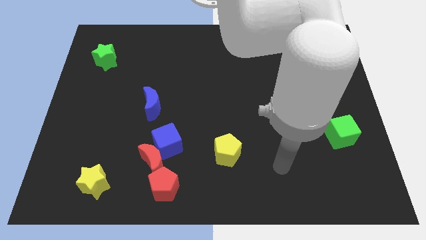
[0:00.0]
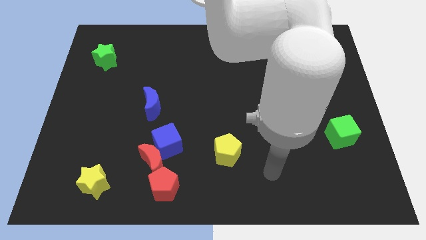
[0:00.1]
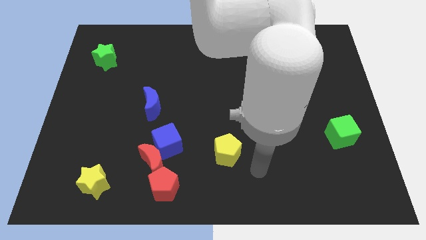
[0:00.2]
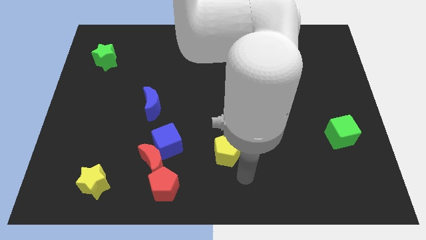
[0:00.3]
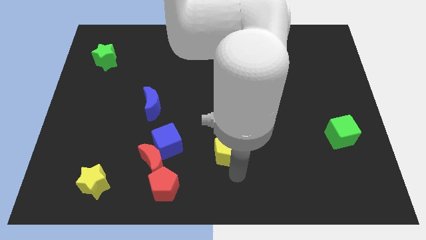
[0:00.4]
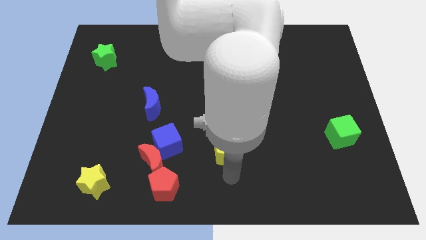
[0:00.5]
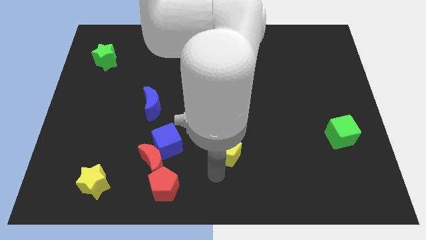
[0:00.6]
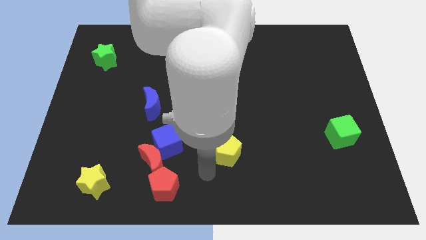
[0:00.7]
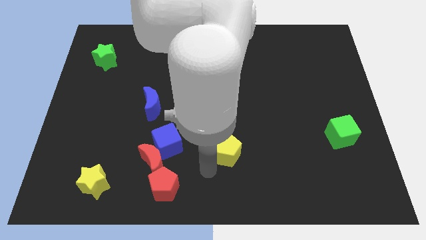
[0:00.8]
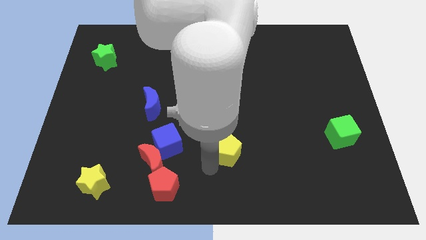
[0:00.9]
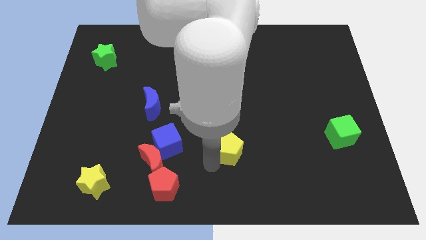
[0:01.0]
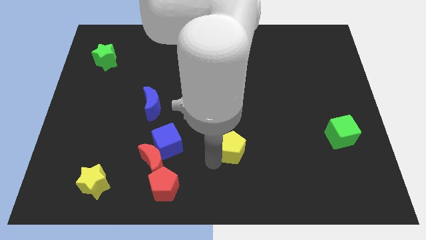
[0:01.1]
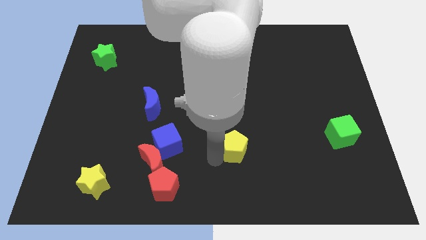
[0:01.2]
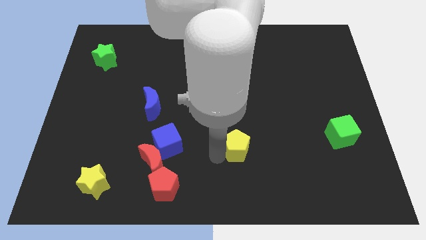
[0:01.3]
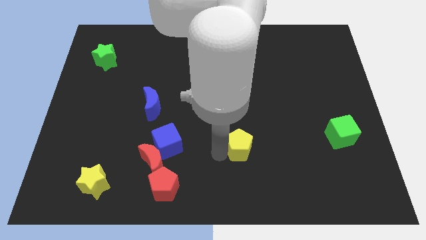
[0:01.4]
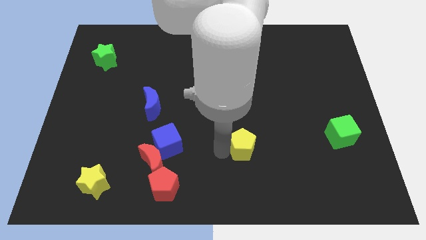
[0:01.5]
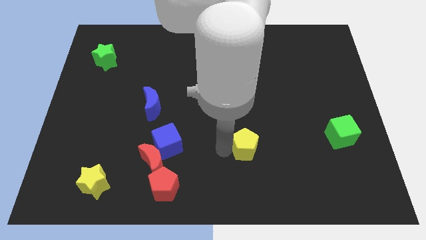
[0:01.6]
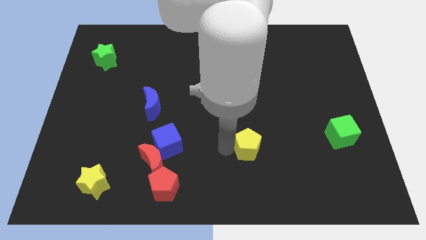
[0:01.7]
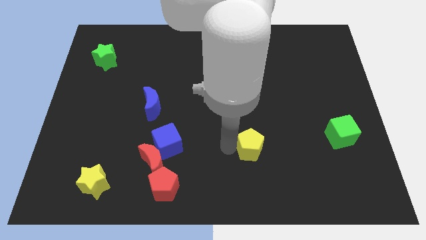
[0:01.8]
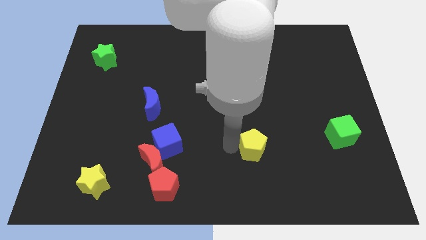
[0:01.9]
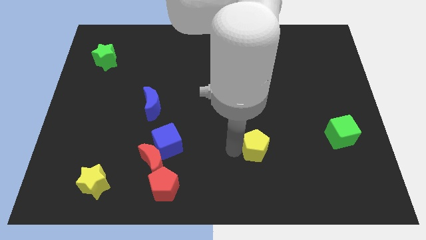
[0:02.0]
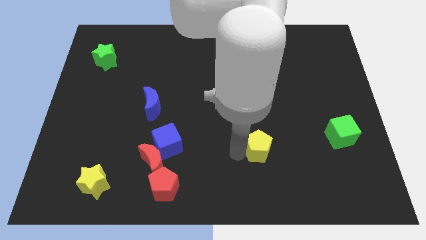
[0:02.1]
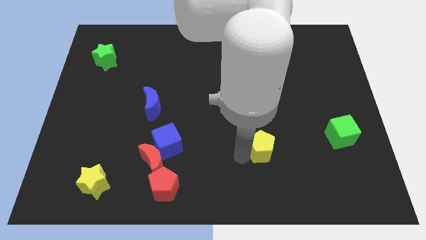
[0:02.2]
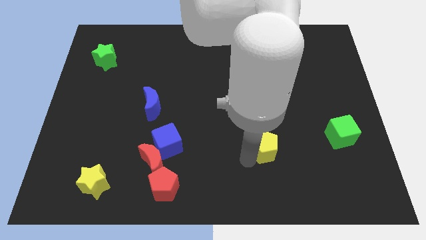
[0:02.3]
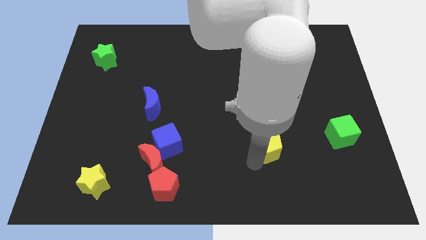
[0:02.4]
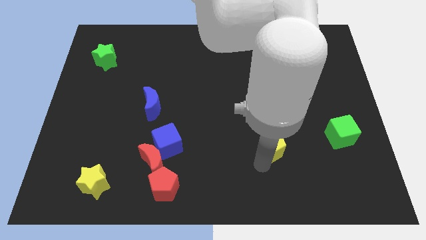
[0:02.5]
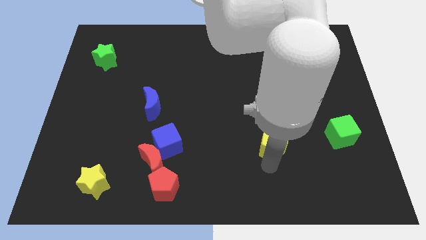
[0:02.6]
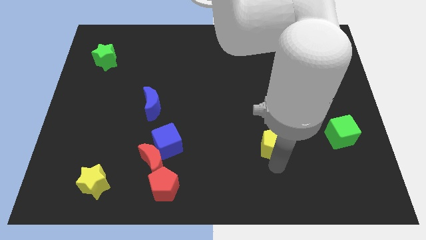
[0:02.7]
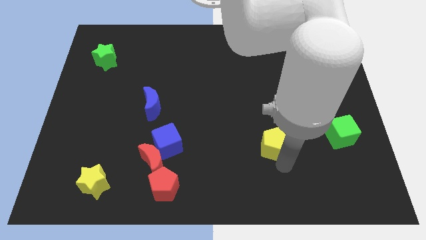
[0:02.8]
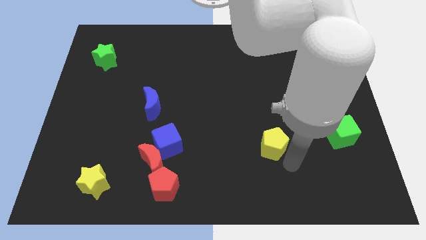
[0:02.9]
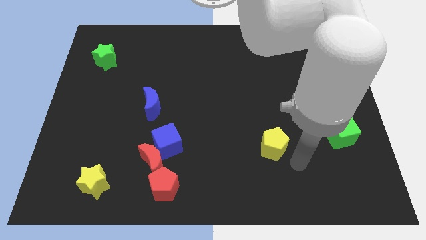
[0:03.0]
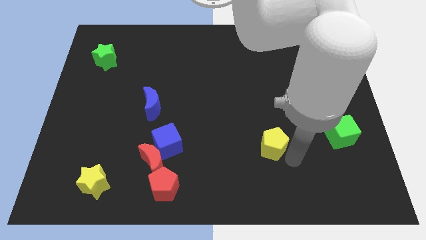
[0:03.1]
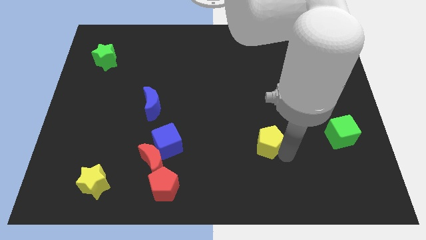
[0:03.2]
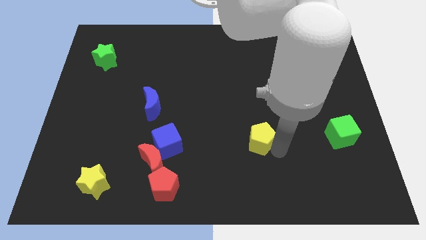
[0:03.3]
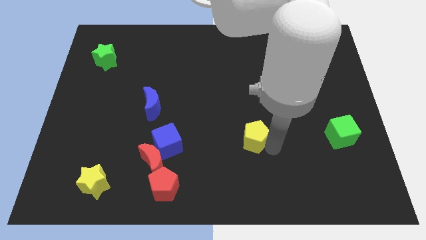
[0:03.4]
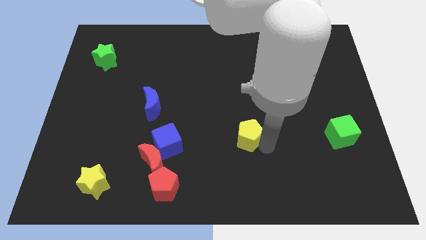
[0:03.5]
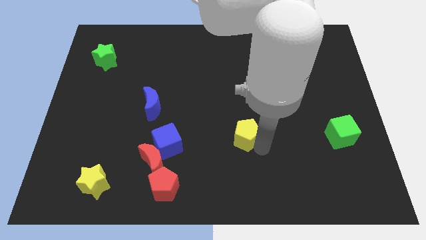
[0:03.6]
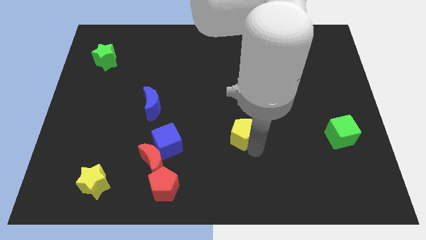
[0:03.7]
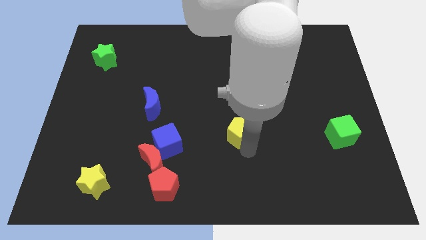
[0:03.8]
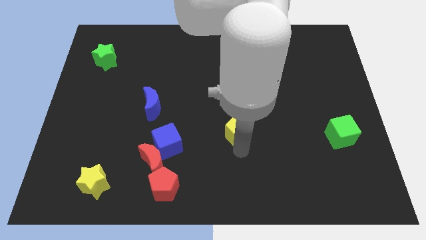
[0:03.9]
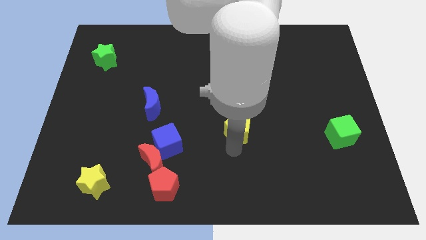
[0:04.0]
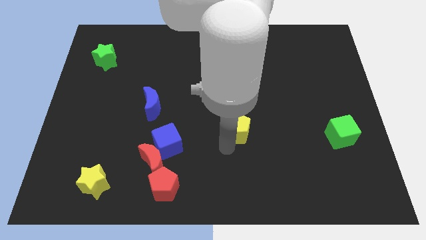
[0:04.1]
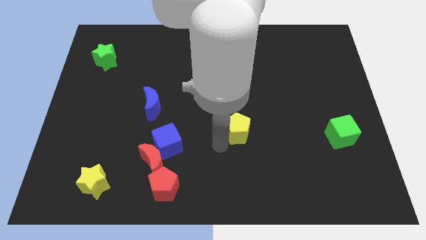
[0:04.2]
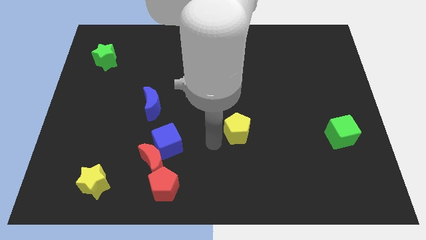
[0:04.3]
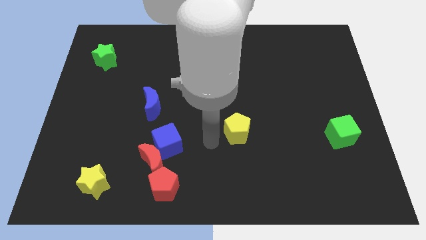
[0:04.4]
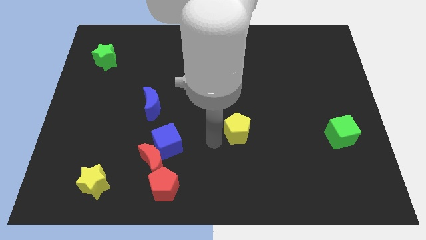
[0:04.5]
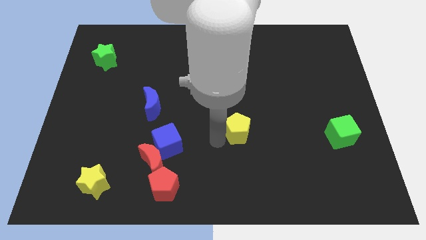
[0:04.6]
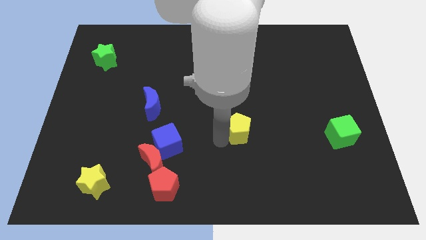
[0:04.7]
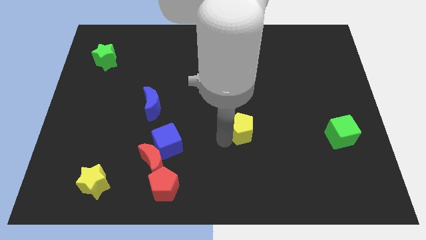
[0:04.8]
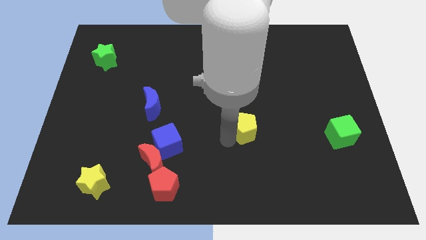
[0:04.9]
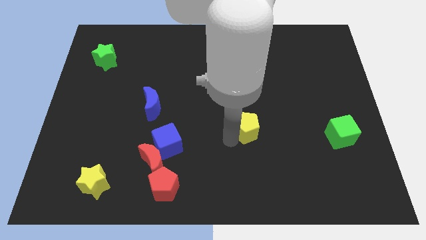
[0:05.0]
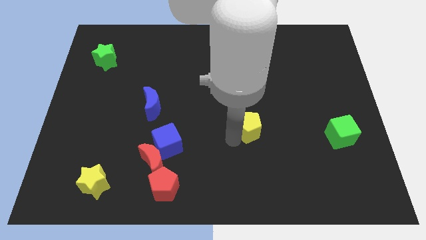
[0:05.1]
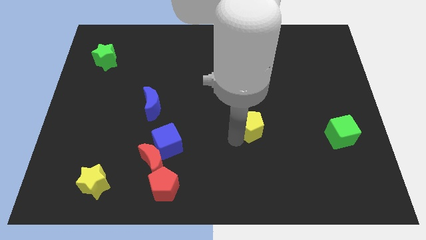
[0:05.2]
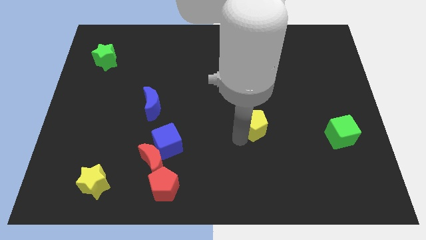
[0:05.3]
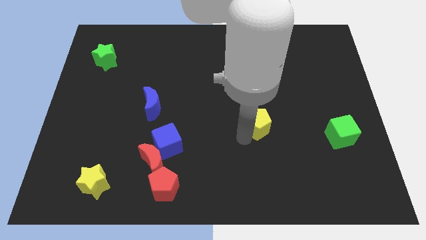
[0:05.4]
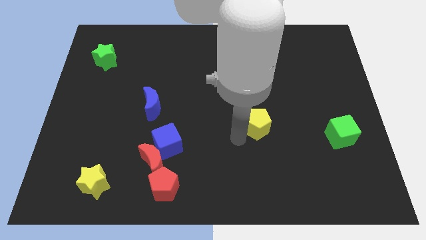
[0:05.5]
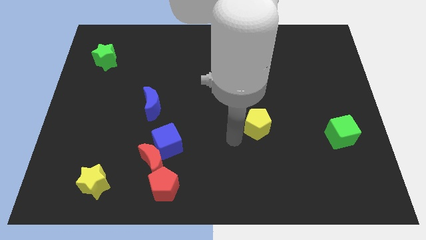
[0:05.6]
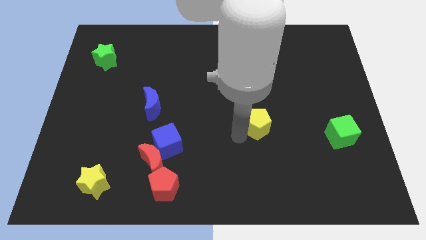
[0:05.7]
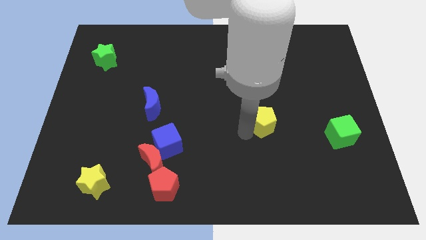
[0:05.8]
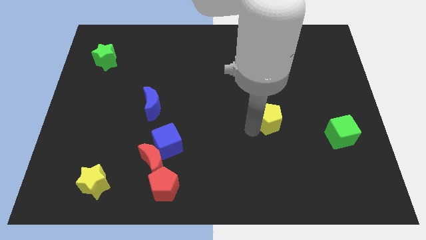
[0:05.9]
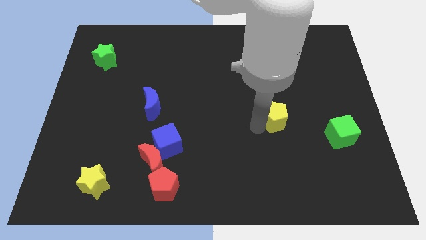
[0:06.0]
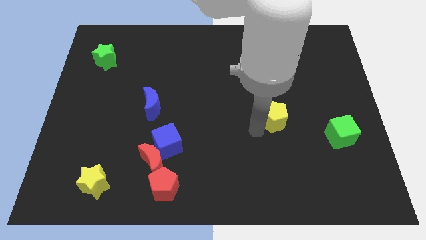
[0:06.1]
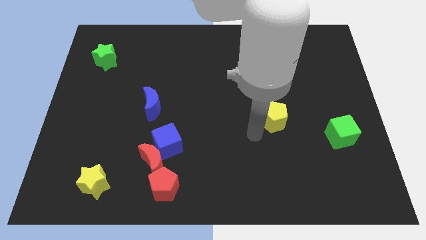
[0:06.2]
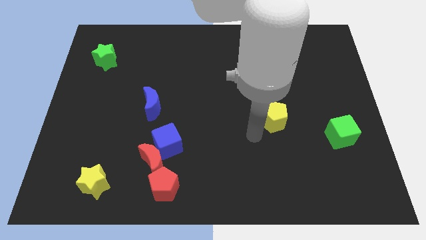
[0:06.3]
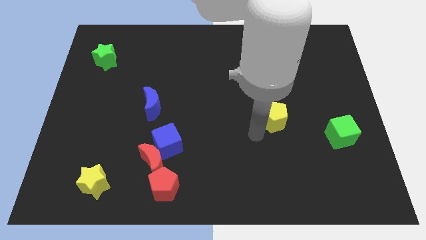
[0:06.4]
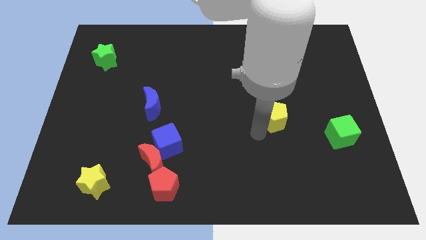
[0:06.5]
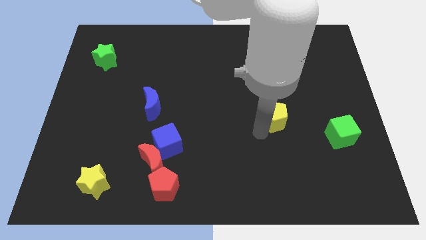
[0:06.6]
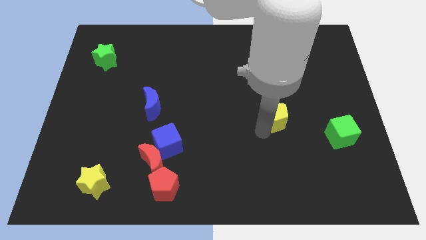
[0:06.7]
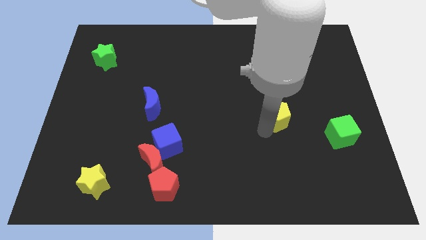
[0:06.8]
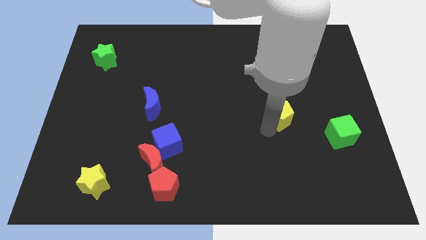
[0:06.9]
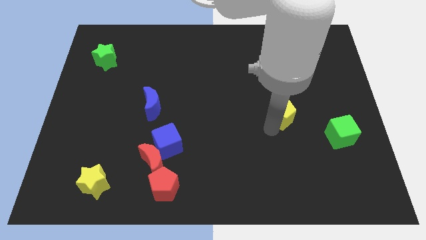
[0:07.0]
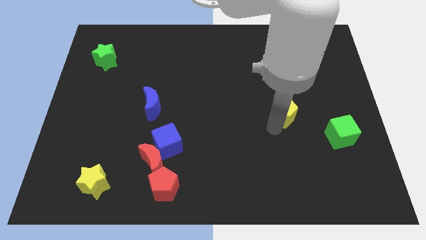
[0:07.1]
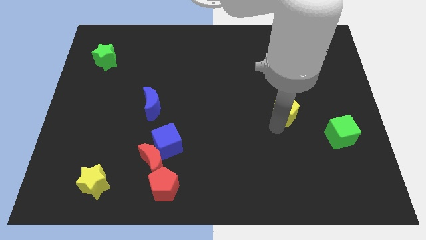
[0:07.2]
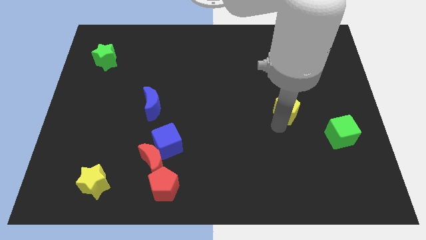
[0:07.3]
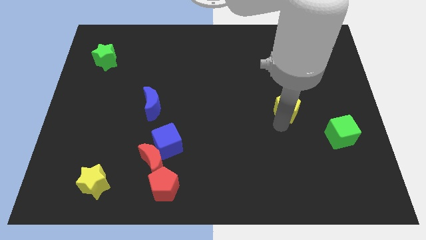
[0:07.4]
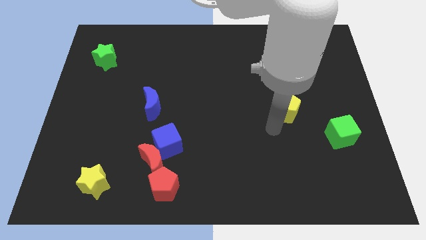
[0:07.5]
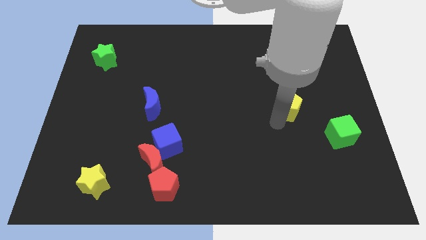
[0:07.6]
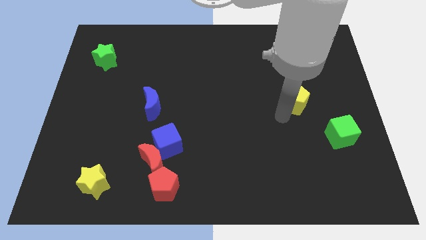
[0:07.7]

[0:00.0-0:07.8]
push the yellow pentagon up and then right

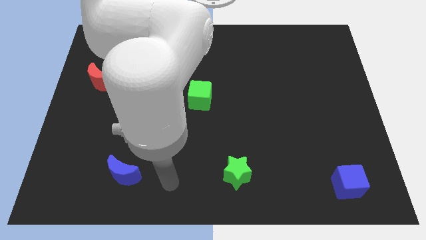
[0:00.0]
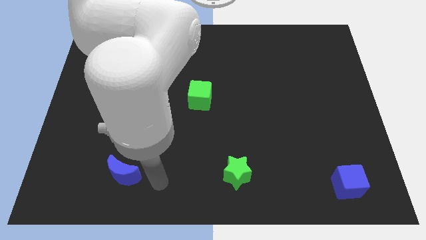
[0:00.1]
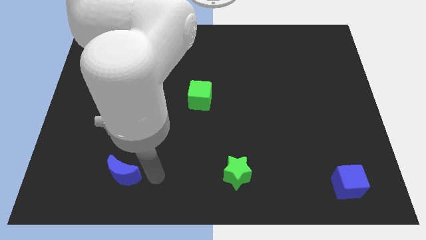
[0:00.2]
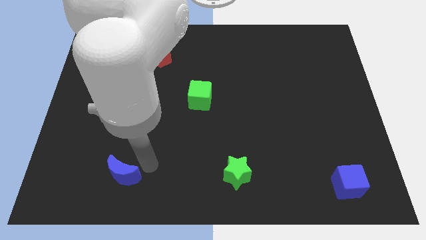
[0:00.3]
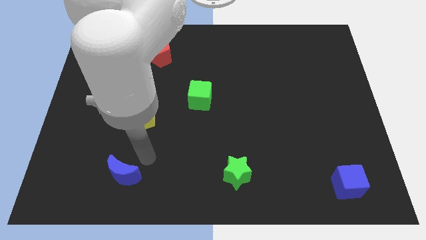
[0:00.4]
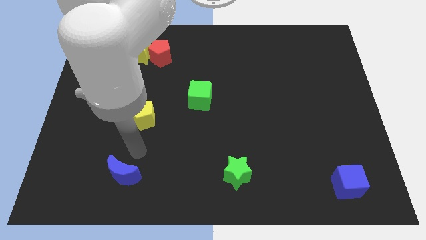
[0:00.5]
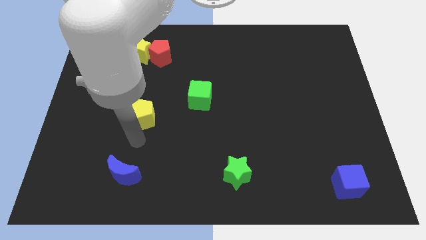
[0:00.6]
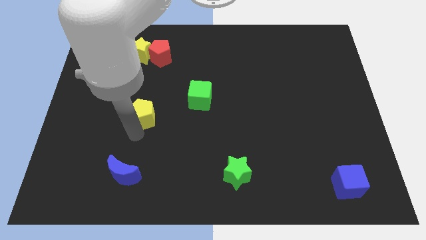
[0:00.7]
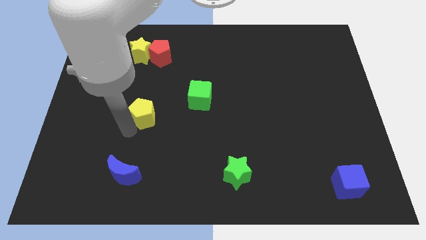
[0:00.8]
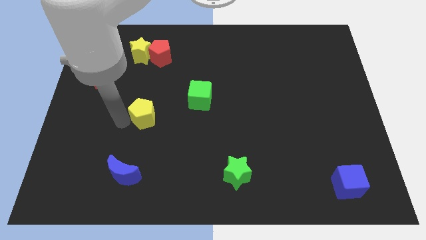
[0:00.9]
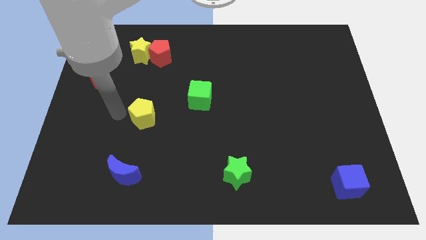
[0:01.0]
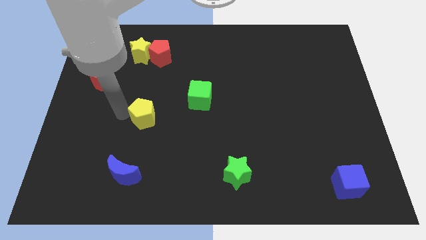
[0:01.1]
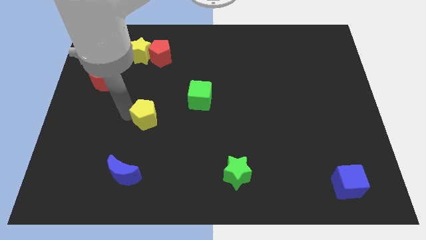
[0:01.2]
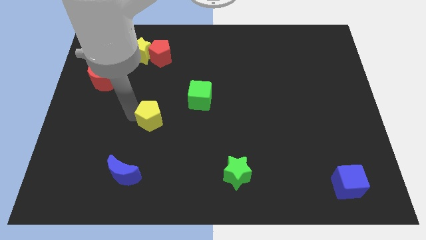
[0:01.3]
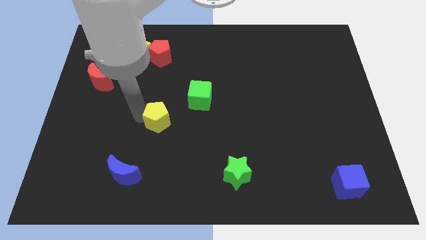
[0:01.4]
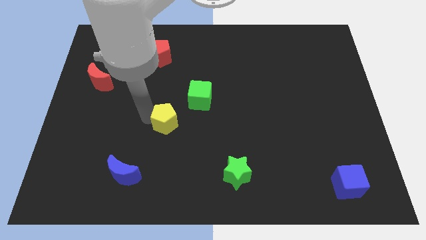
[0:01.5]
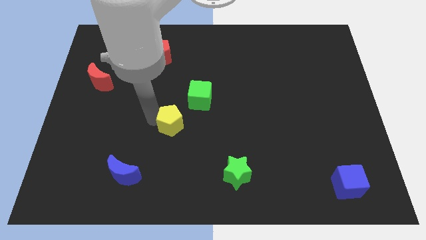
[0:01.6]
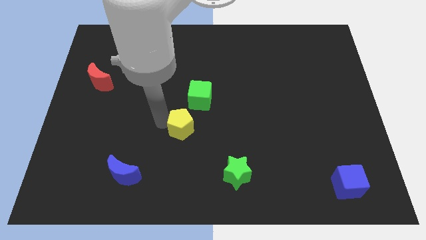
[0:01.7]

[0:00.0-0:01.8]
slightly slide the yellow pentagon right
